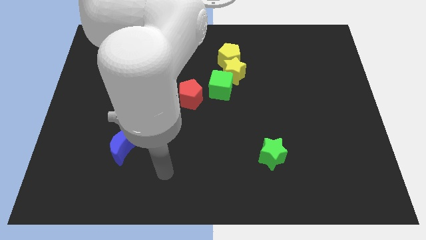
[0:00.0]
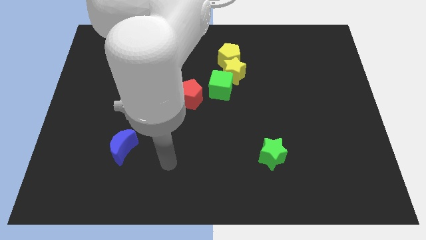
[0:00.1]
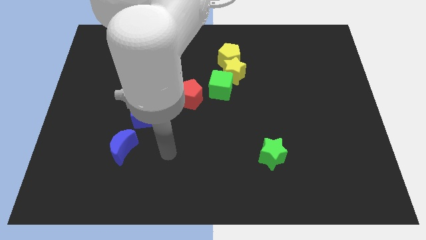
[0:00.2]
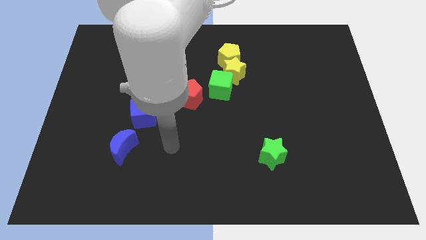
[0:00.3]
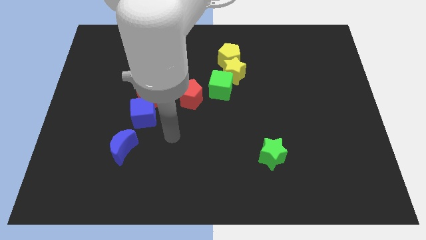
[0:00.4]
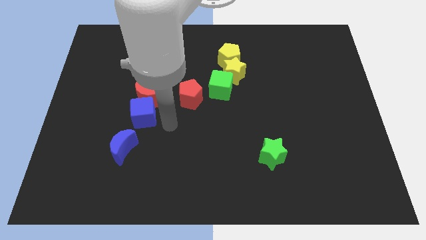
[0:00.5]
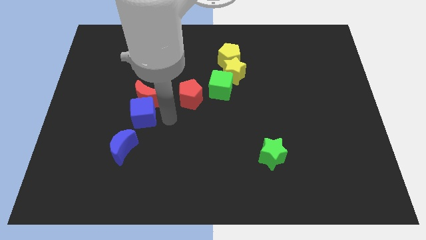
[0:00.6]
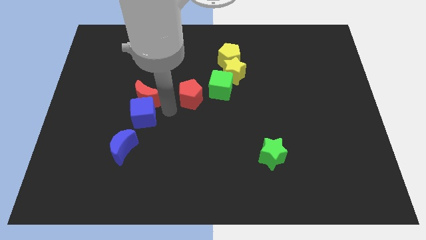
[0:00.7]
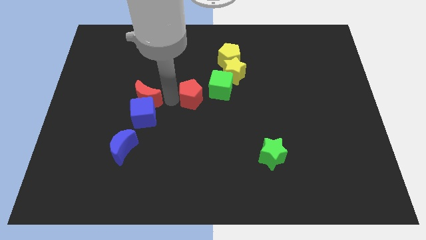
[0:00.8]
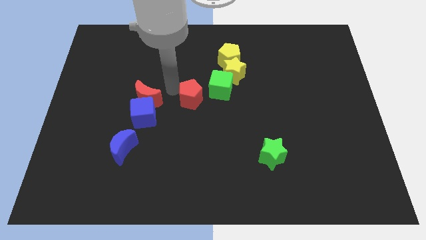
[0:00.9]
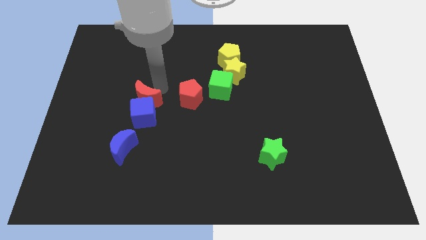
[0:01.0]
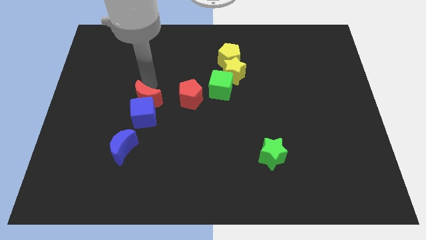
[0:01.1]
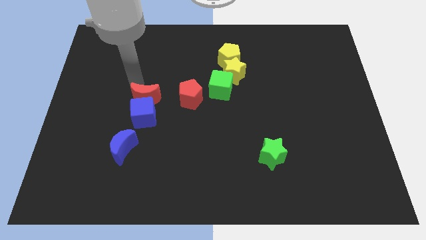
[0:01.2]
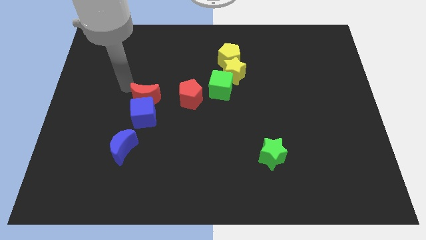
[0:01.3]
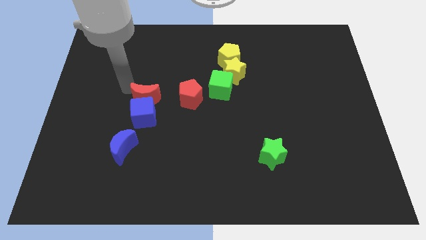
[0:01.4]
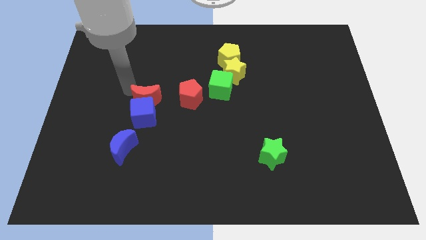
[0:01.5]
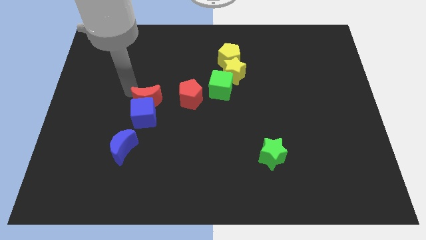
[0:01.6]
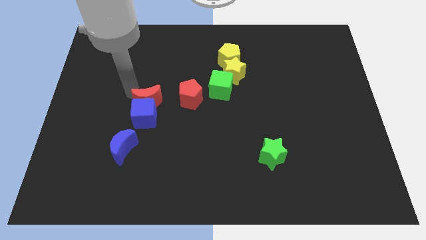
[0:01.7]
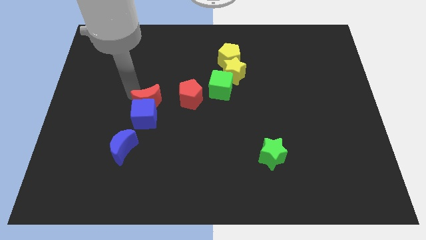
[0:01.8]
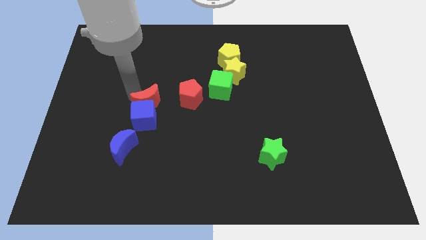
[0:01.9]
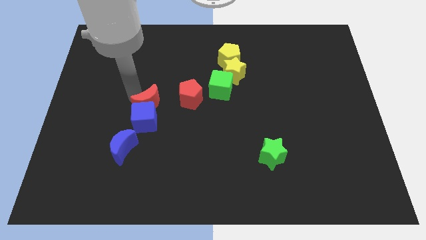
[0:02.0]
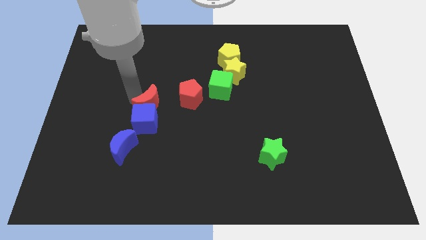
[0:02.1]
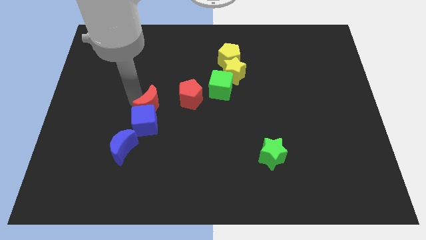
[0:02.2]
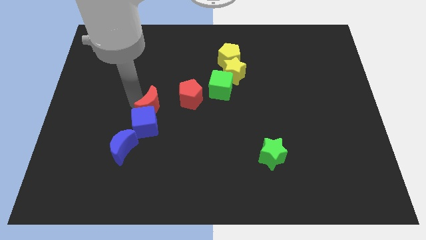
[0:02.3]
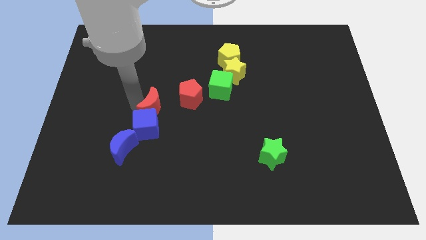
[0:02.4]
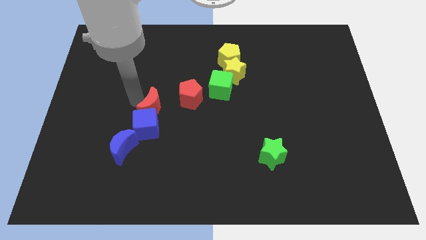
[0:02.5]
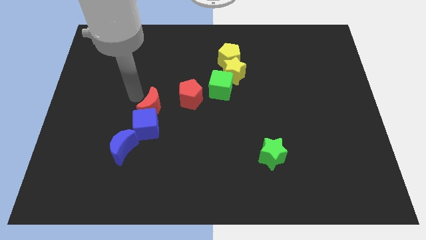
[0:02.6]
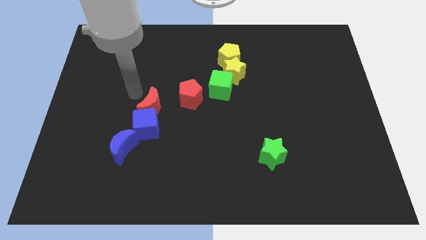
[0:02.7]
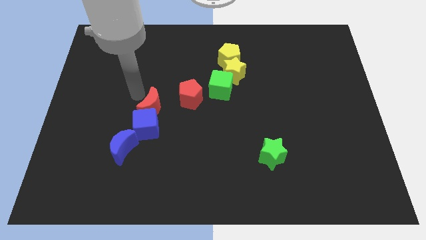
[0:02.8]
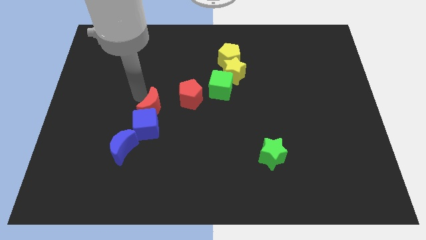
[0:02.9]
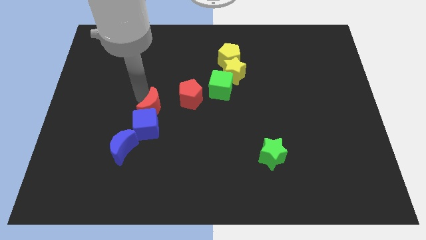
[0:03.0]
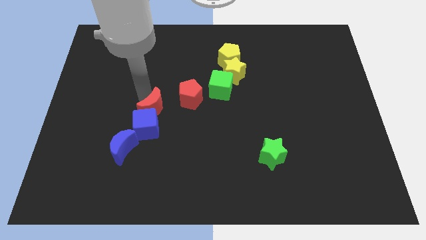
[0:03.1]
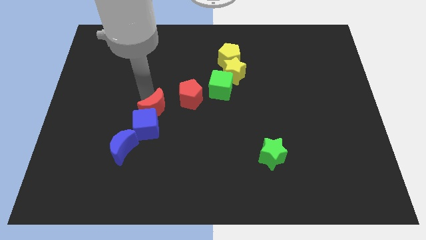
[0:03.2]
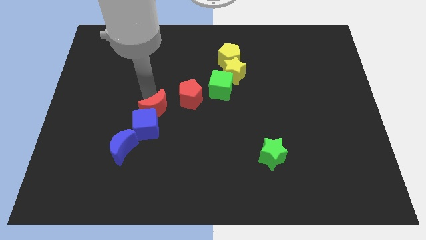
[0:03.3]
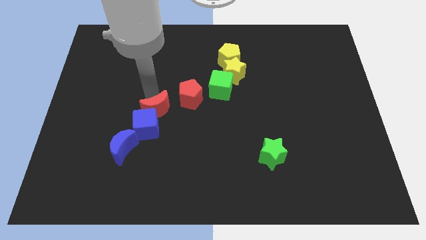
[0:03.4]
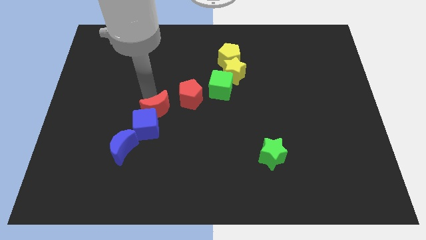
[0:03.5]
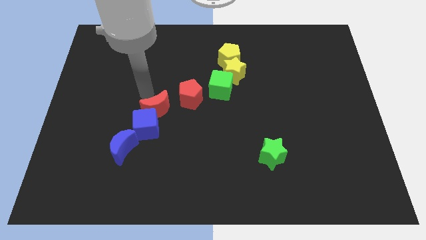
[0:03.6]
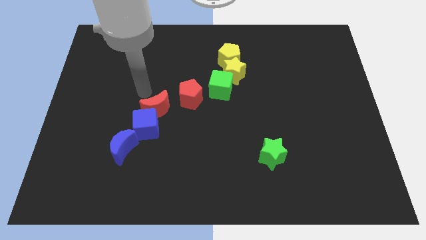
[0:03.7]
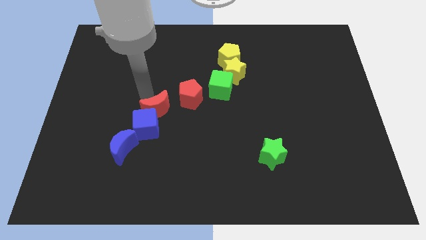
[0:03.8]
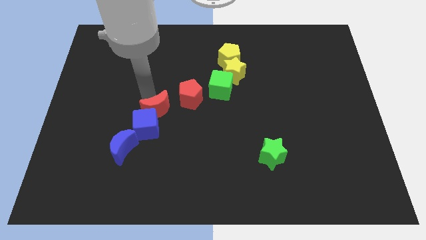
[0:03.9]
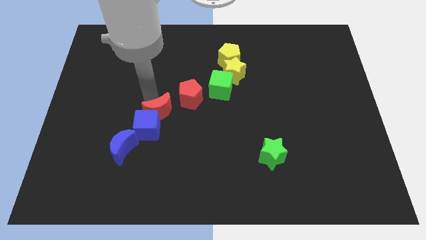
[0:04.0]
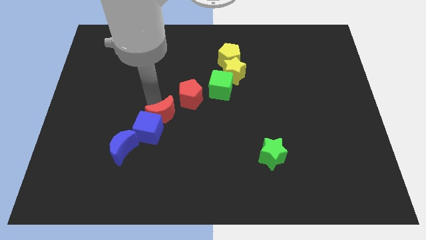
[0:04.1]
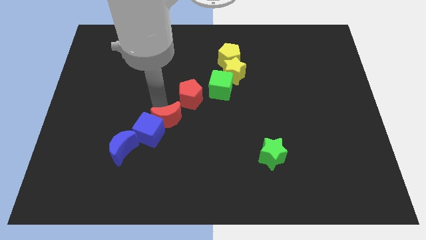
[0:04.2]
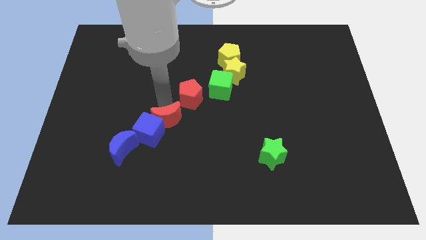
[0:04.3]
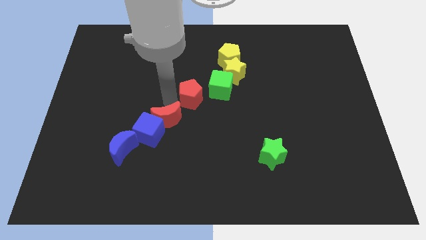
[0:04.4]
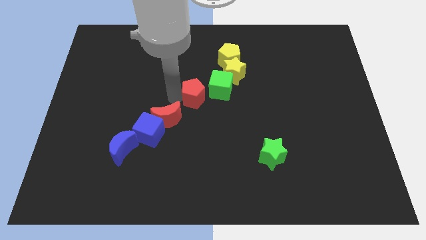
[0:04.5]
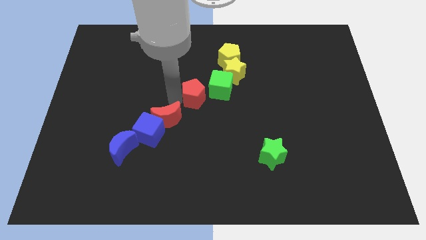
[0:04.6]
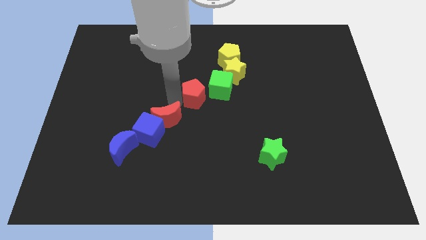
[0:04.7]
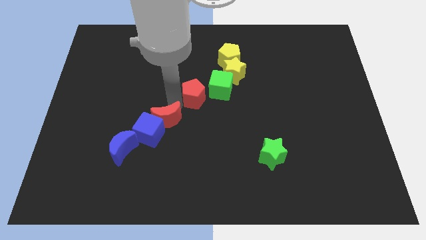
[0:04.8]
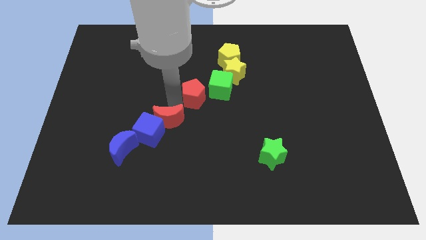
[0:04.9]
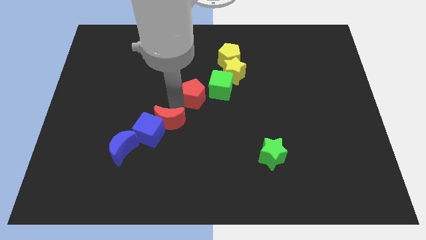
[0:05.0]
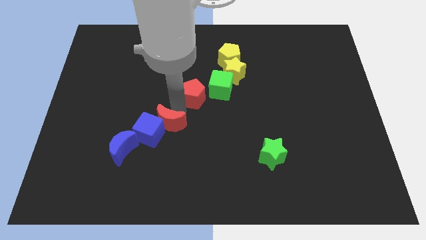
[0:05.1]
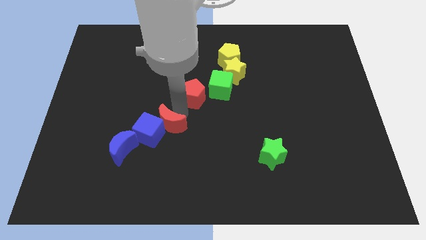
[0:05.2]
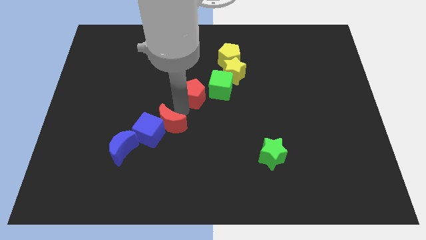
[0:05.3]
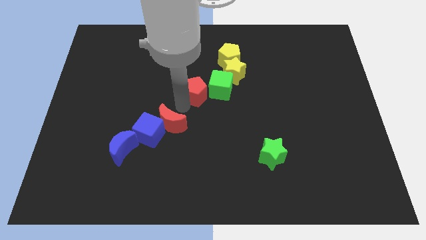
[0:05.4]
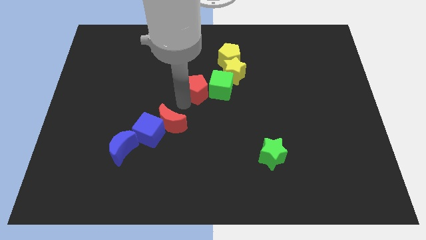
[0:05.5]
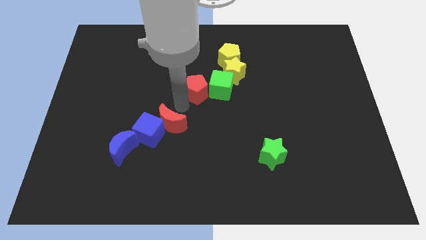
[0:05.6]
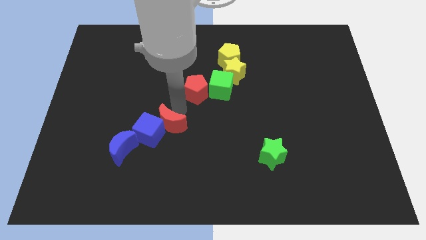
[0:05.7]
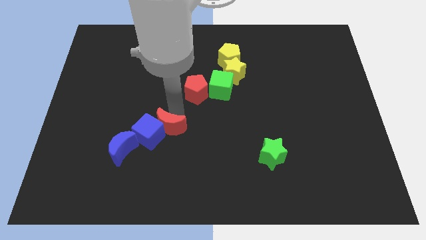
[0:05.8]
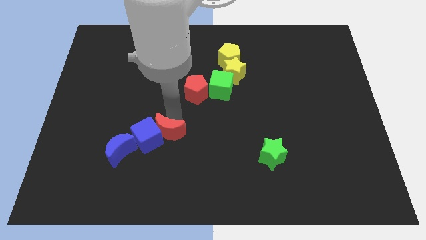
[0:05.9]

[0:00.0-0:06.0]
slide the red moon down a little bit

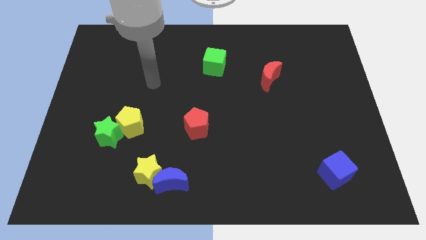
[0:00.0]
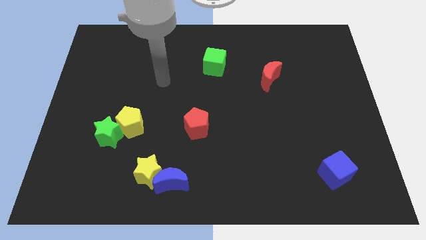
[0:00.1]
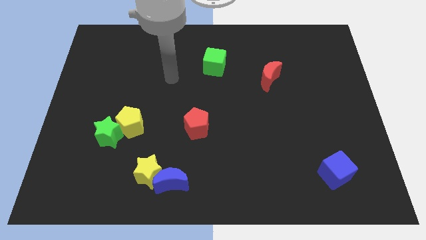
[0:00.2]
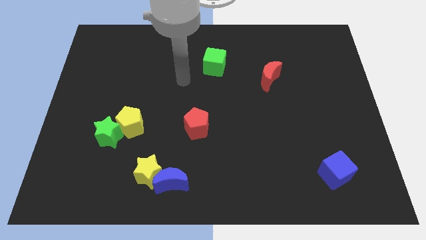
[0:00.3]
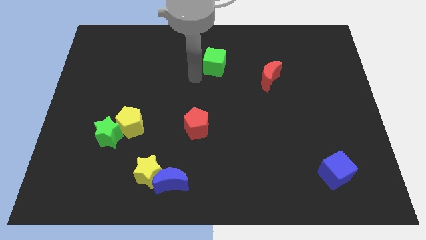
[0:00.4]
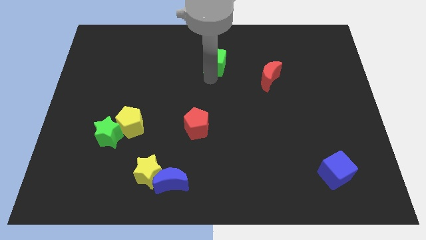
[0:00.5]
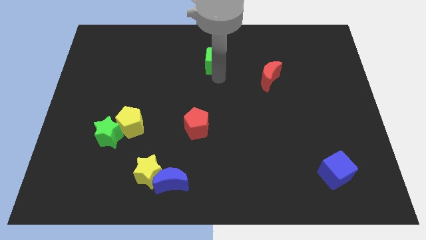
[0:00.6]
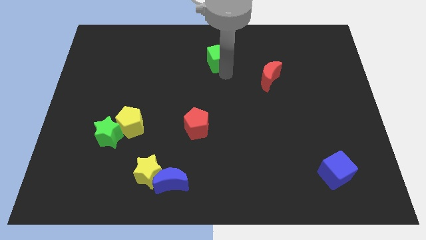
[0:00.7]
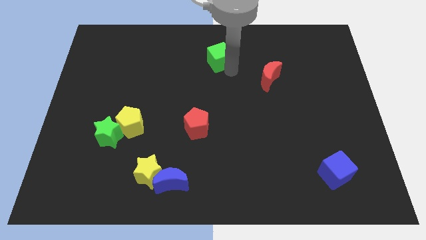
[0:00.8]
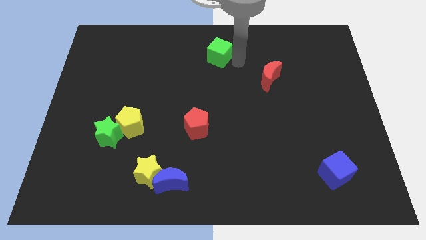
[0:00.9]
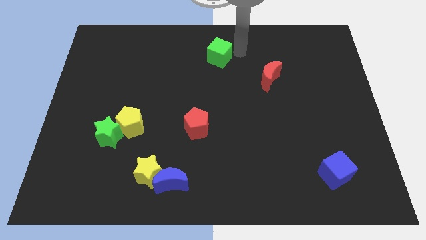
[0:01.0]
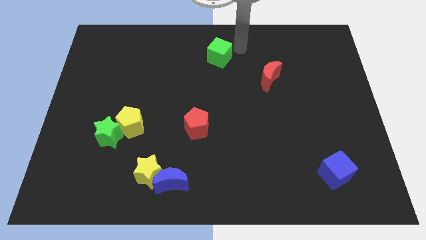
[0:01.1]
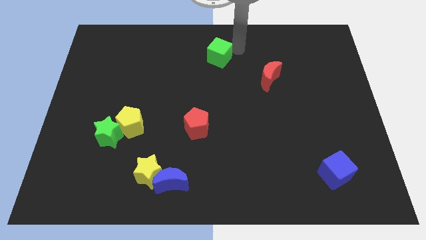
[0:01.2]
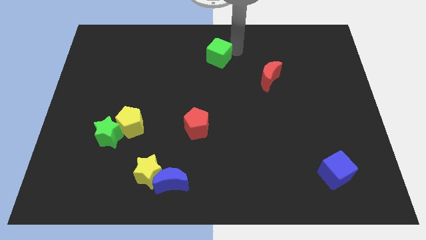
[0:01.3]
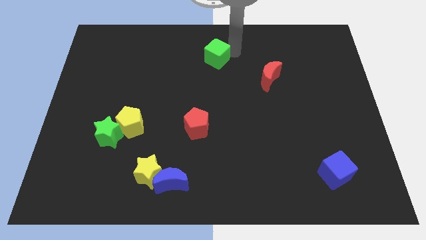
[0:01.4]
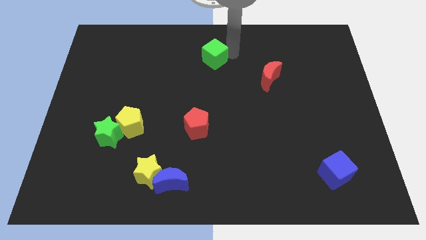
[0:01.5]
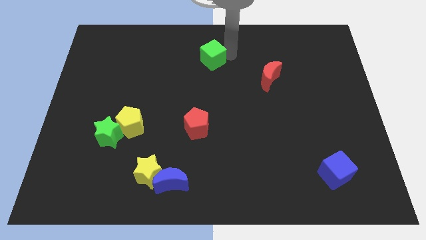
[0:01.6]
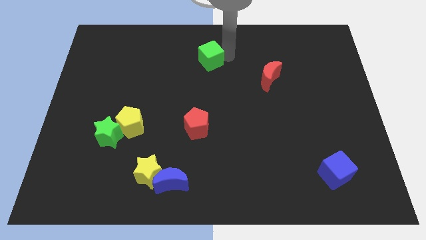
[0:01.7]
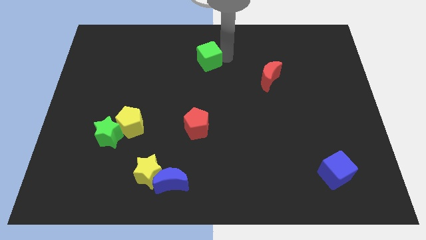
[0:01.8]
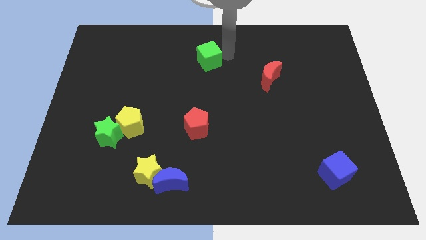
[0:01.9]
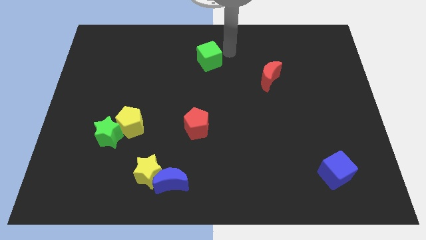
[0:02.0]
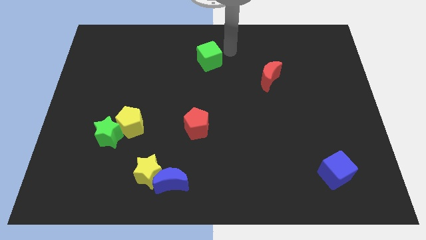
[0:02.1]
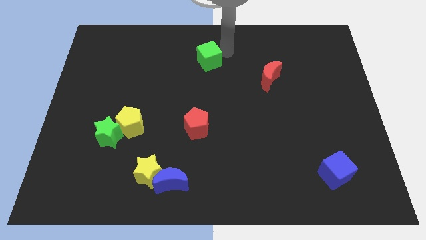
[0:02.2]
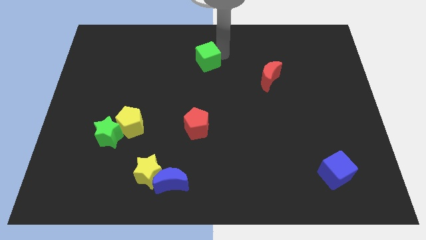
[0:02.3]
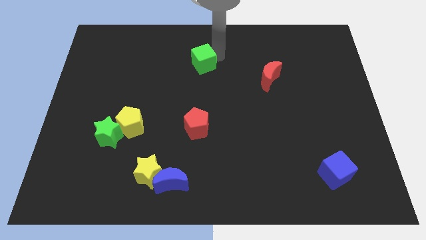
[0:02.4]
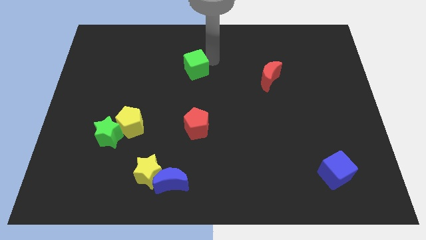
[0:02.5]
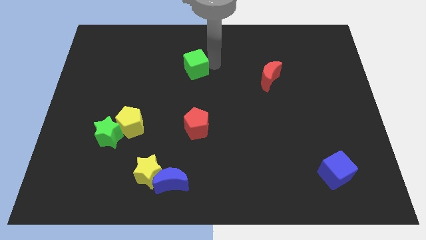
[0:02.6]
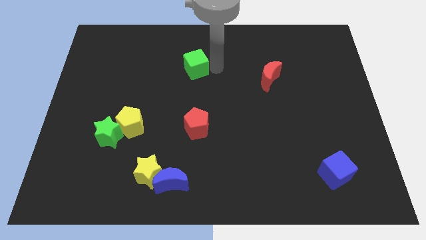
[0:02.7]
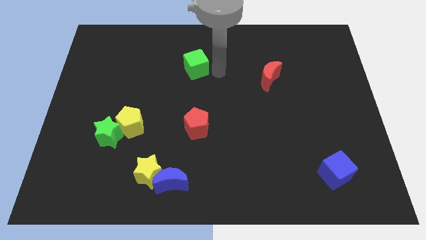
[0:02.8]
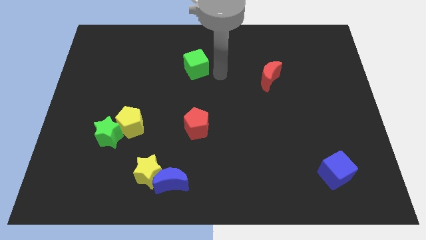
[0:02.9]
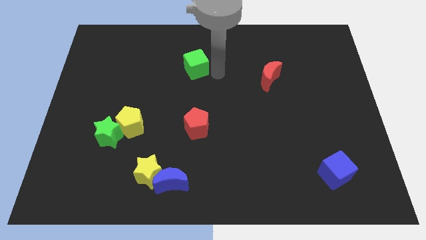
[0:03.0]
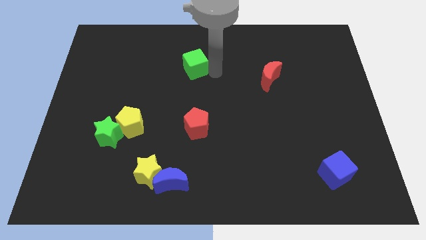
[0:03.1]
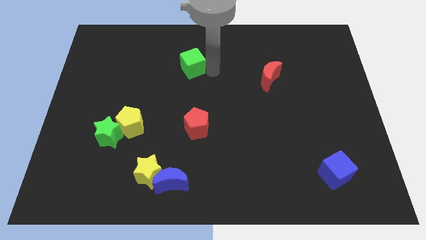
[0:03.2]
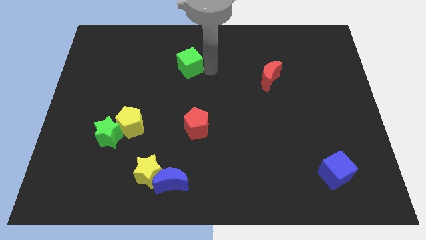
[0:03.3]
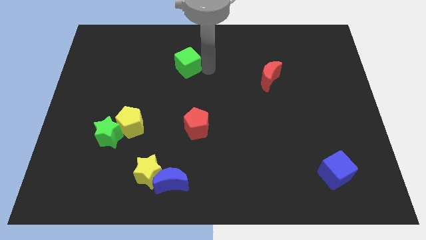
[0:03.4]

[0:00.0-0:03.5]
move the green cube a little bit left
